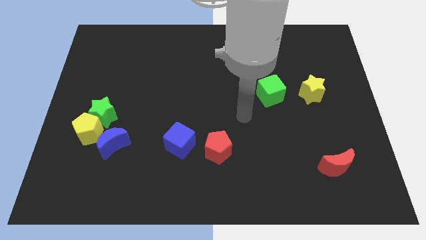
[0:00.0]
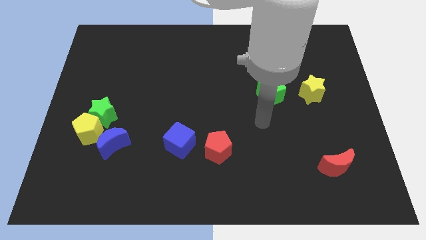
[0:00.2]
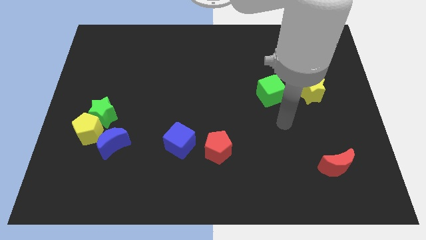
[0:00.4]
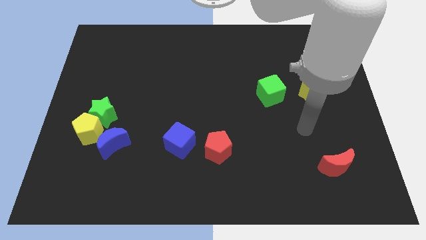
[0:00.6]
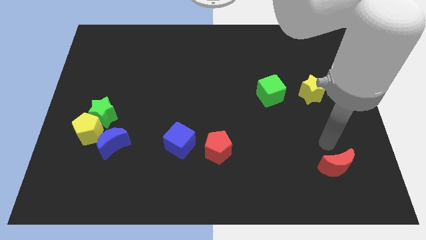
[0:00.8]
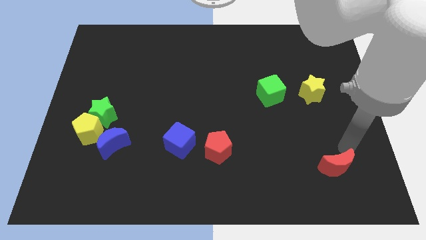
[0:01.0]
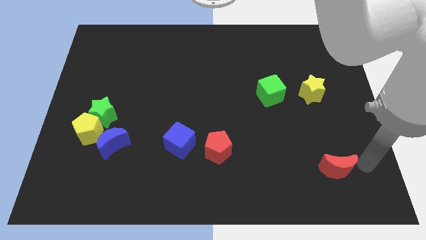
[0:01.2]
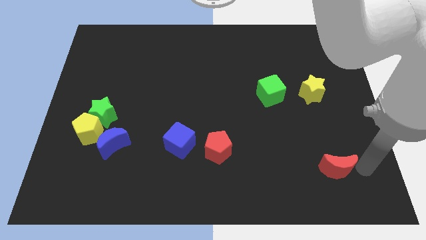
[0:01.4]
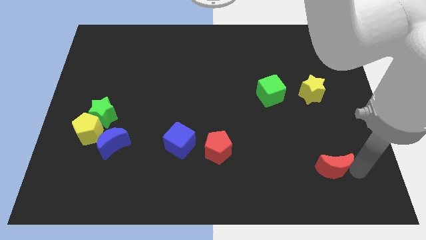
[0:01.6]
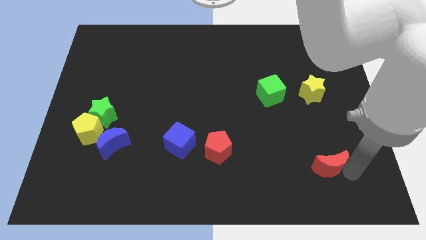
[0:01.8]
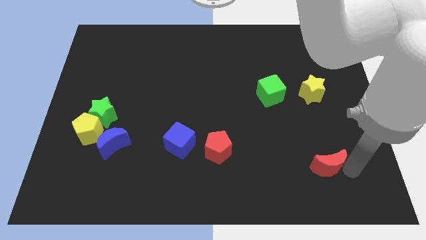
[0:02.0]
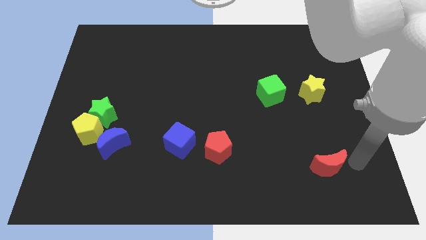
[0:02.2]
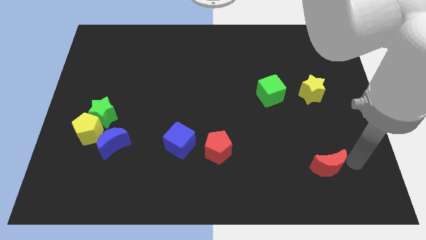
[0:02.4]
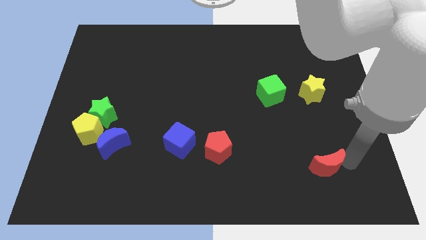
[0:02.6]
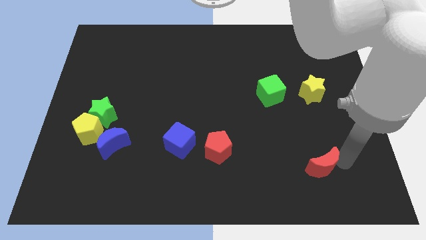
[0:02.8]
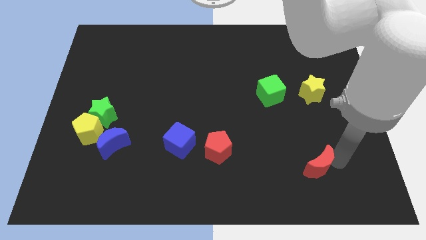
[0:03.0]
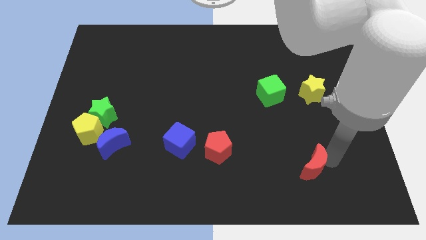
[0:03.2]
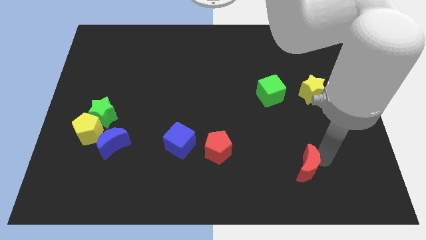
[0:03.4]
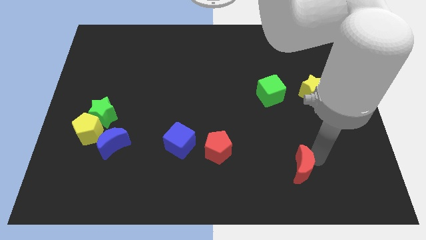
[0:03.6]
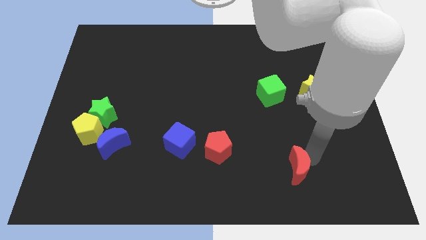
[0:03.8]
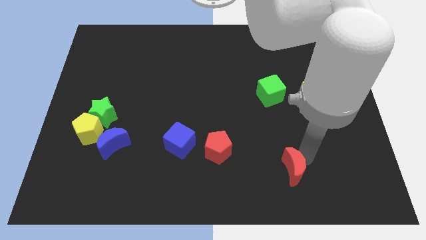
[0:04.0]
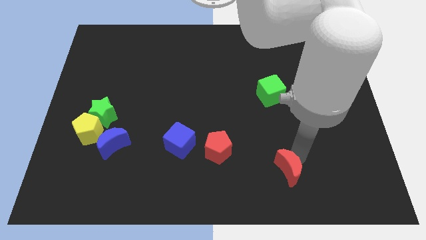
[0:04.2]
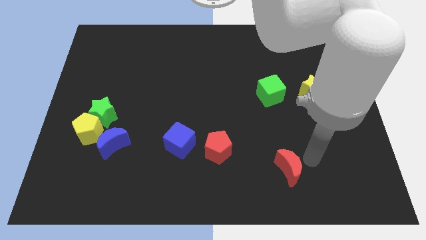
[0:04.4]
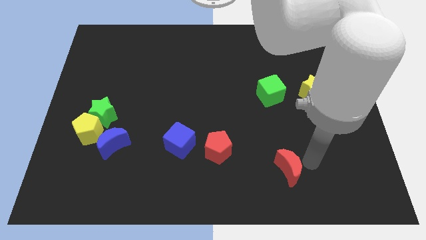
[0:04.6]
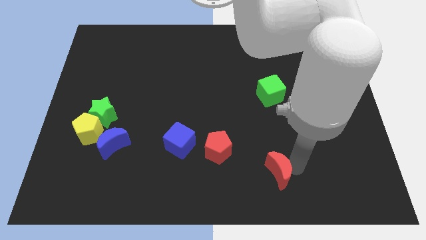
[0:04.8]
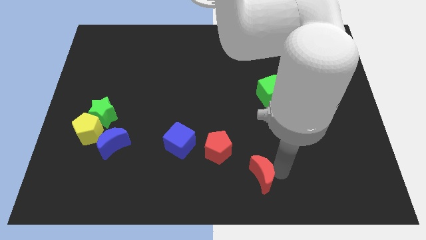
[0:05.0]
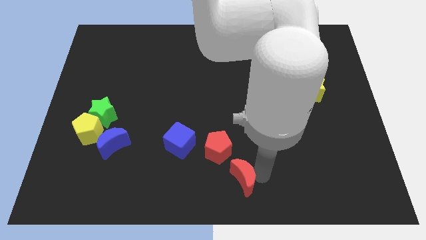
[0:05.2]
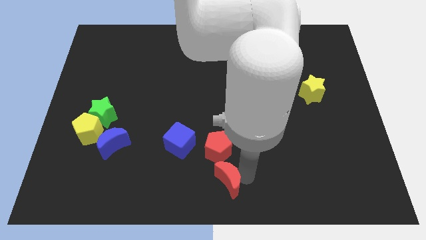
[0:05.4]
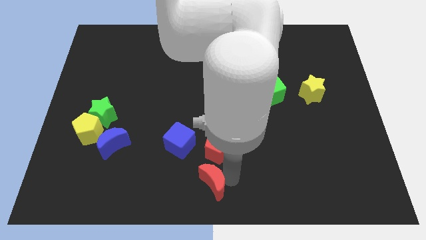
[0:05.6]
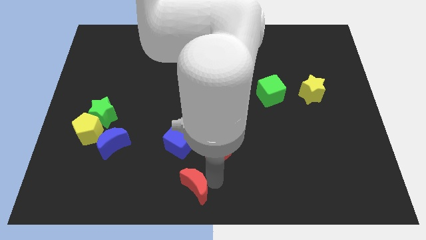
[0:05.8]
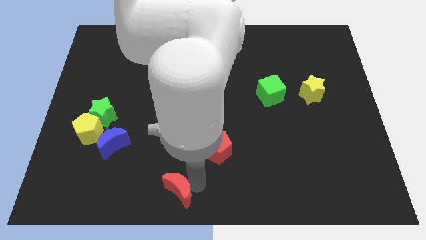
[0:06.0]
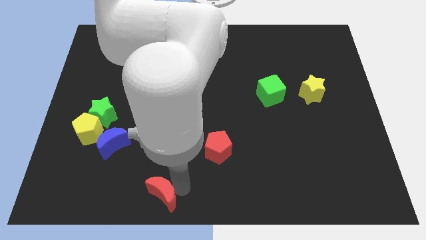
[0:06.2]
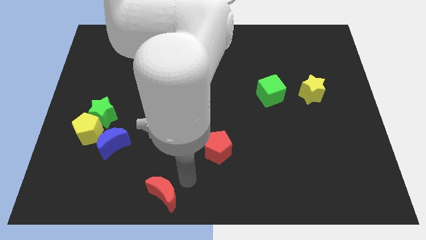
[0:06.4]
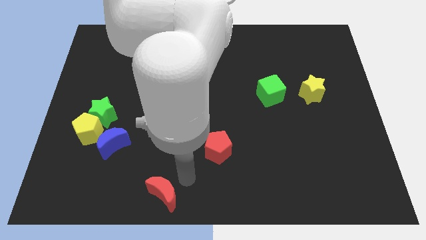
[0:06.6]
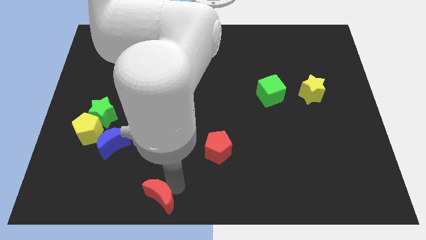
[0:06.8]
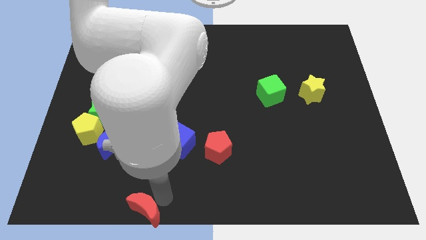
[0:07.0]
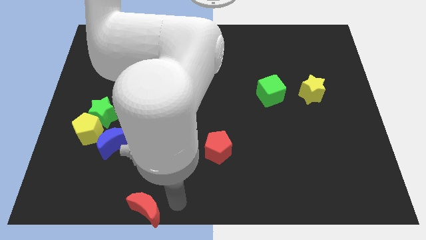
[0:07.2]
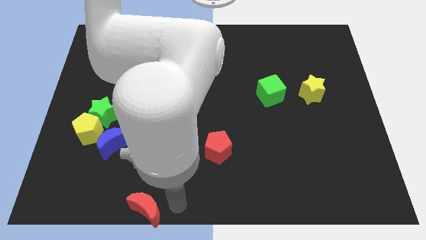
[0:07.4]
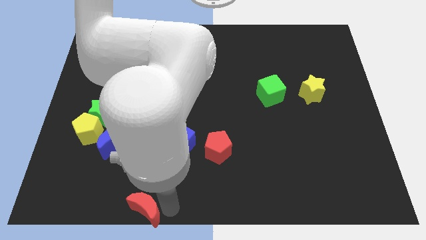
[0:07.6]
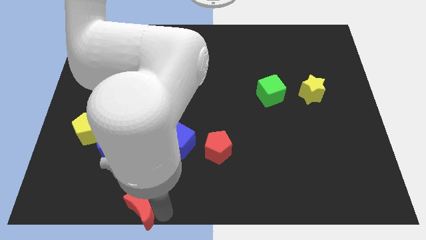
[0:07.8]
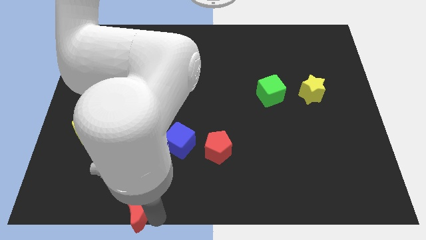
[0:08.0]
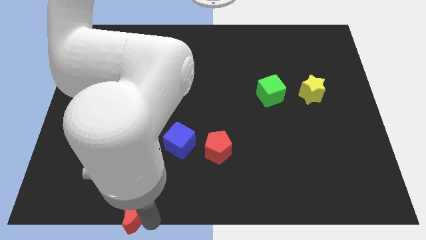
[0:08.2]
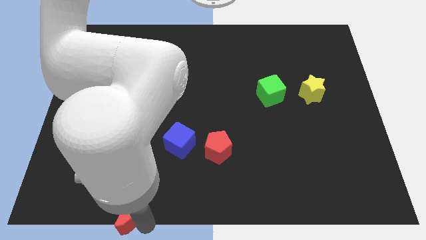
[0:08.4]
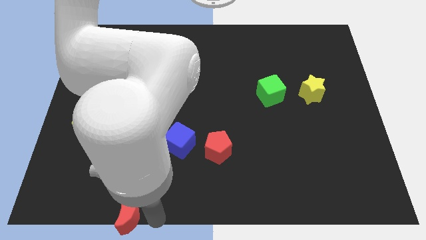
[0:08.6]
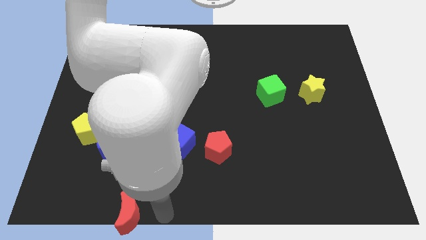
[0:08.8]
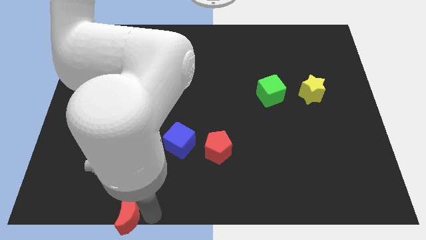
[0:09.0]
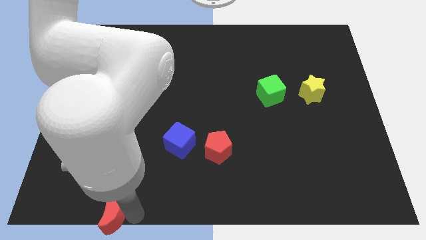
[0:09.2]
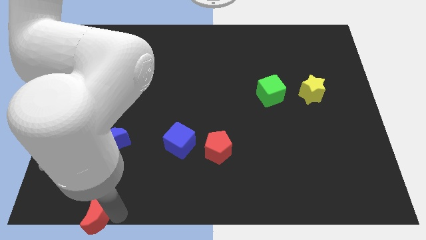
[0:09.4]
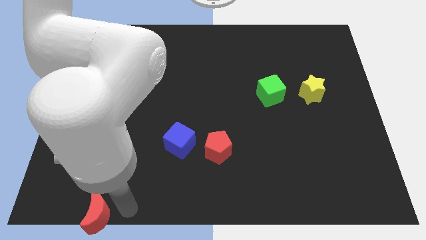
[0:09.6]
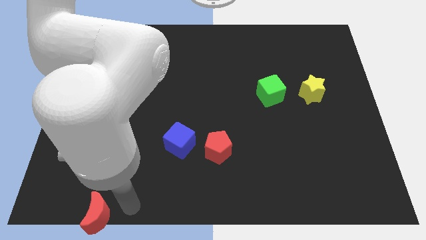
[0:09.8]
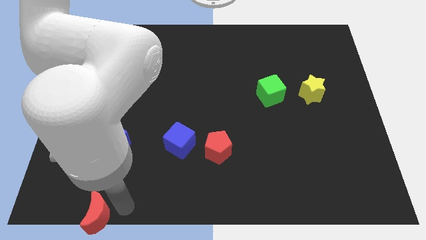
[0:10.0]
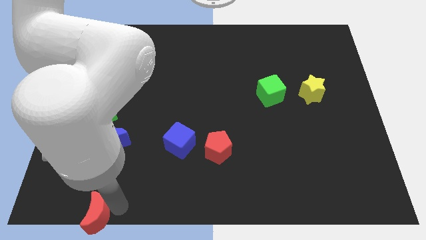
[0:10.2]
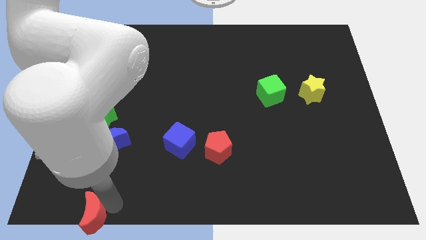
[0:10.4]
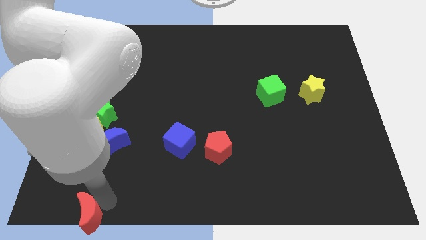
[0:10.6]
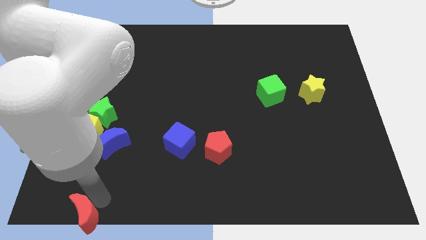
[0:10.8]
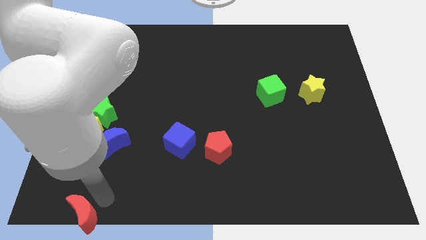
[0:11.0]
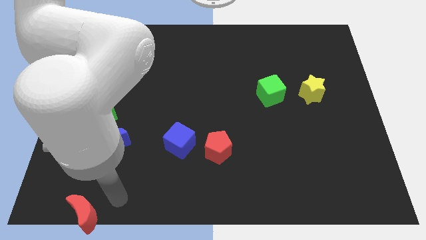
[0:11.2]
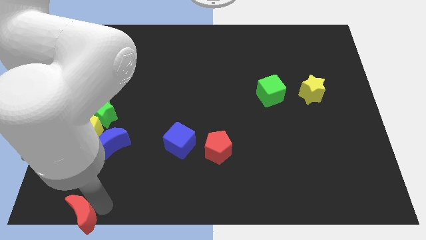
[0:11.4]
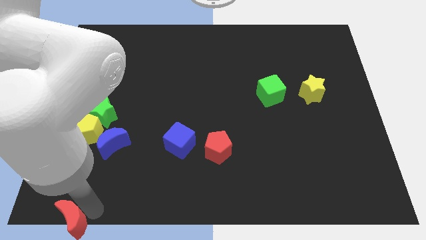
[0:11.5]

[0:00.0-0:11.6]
move the red moon to the lower left corner
